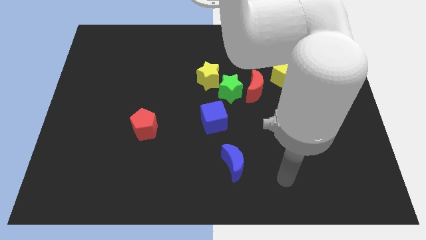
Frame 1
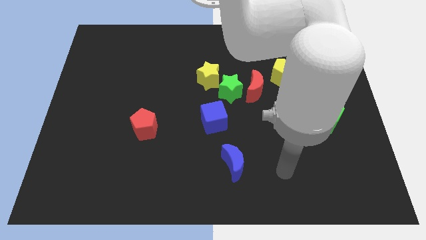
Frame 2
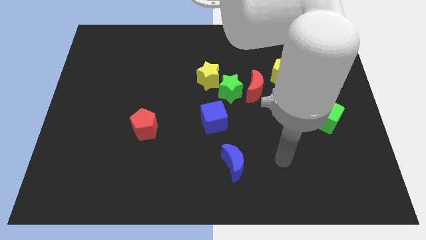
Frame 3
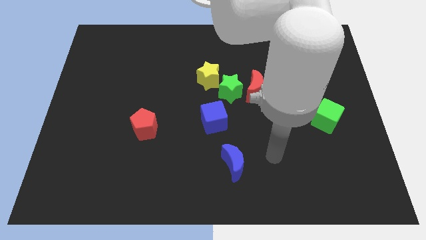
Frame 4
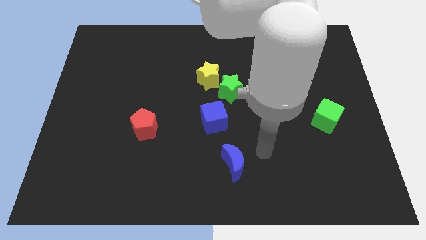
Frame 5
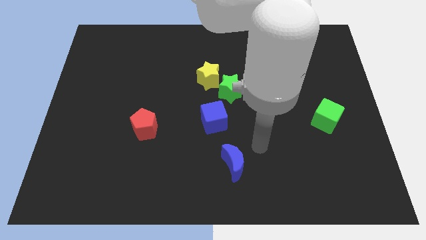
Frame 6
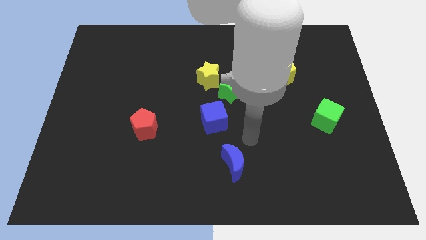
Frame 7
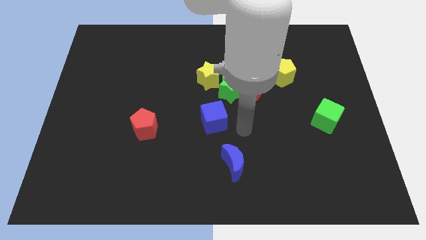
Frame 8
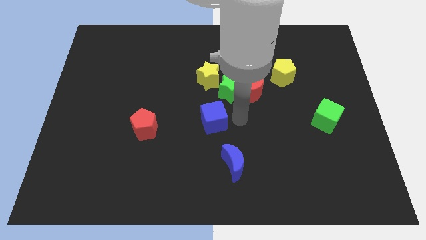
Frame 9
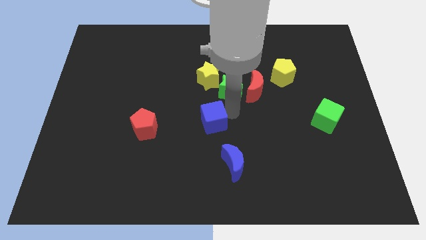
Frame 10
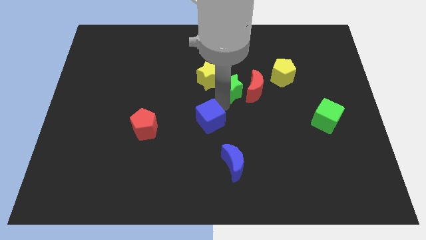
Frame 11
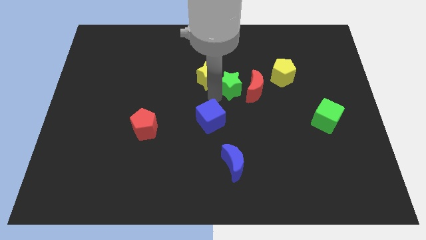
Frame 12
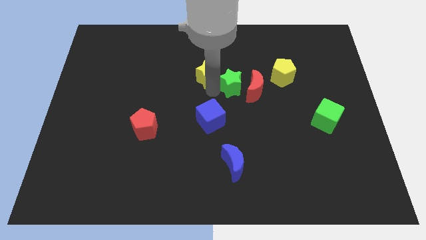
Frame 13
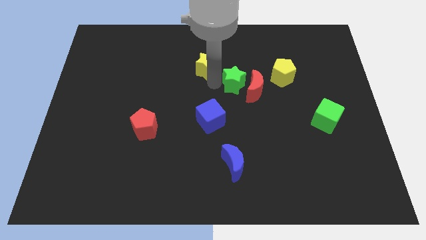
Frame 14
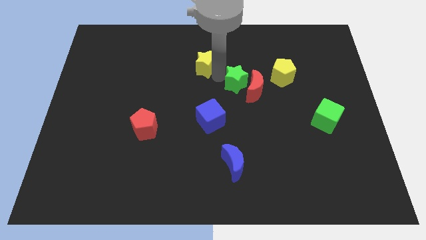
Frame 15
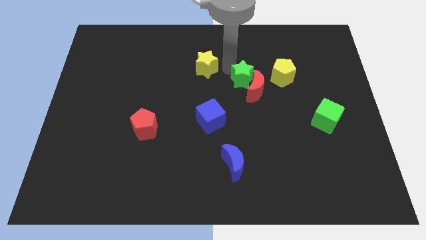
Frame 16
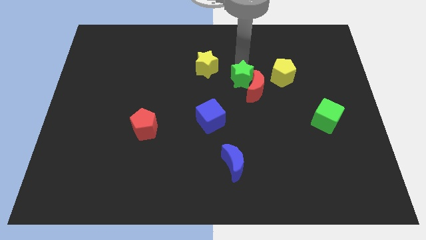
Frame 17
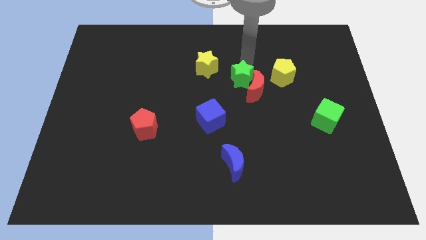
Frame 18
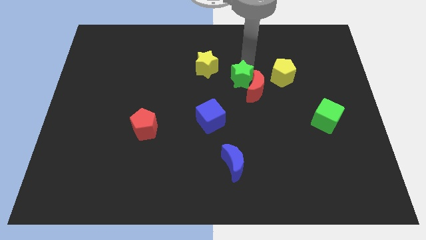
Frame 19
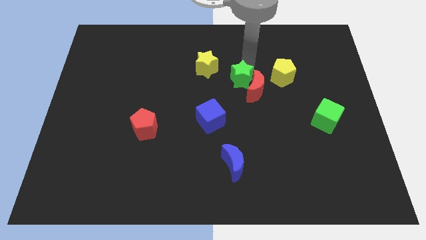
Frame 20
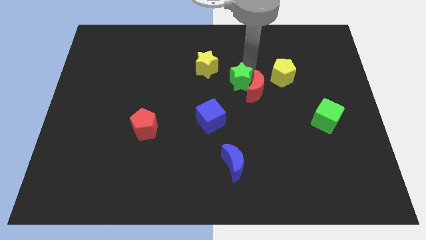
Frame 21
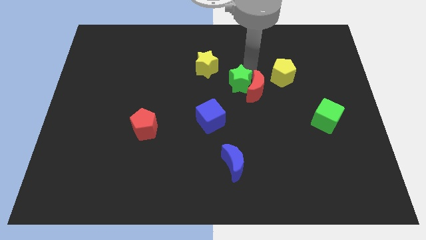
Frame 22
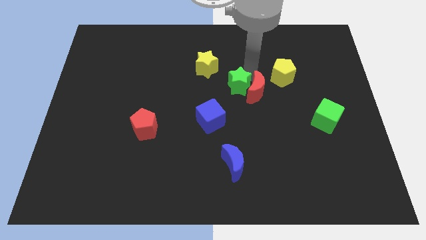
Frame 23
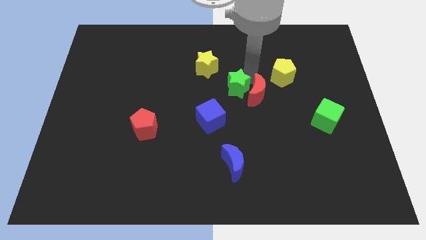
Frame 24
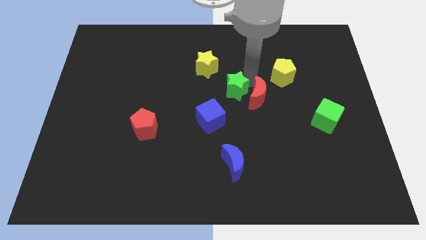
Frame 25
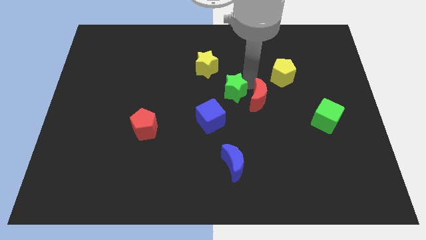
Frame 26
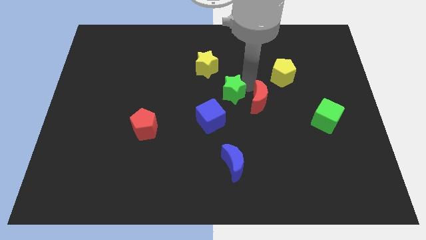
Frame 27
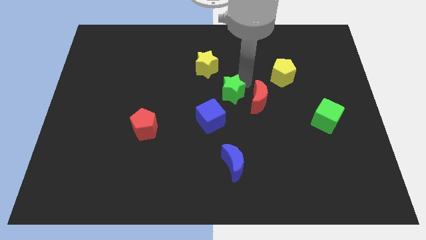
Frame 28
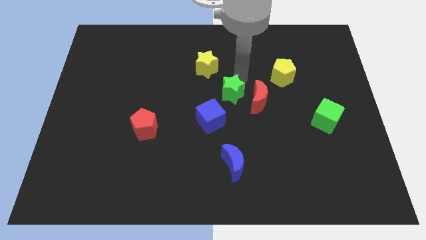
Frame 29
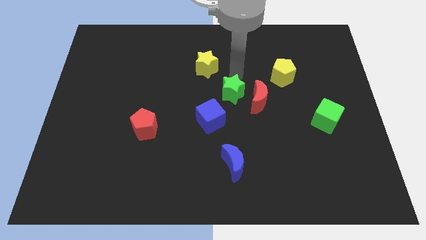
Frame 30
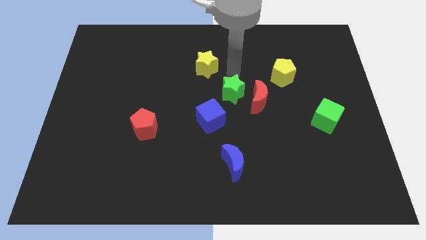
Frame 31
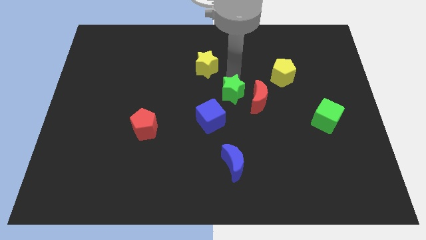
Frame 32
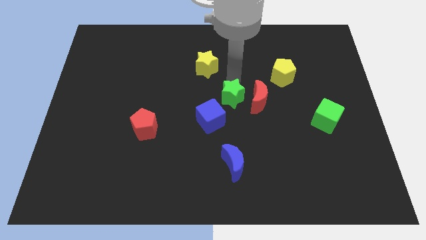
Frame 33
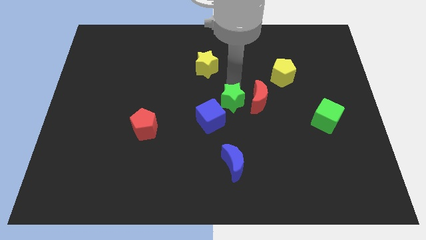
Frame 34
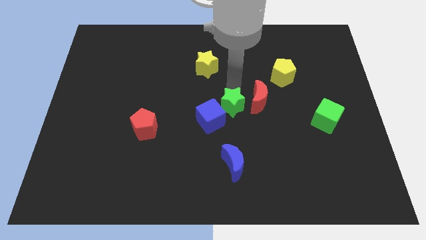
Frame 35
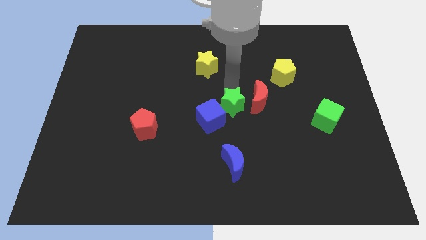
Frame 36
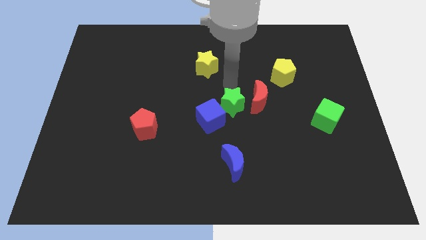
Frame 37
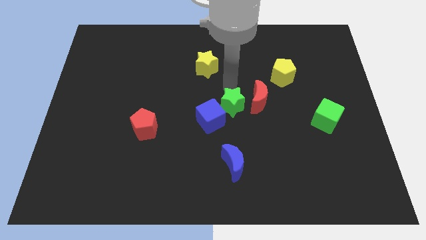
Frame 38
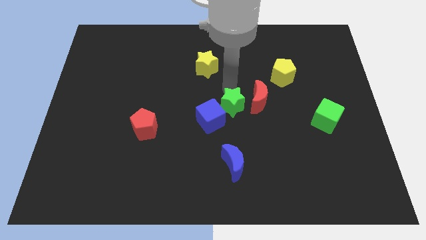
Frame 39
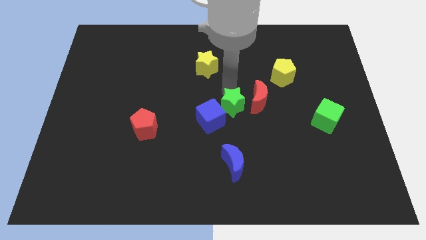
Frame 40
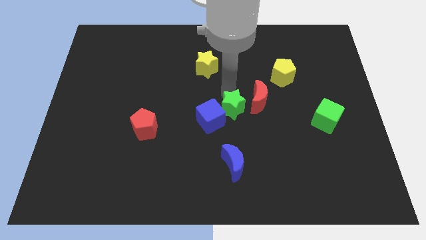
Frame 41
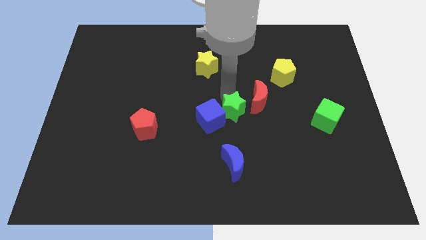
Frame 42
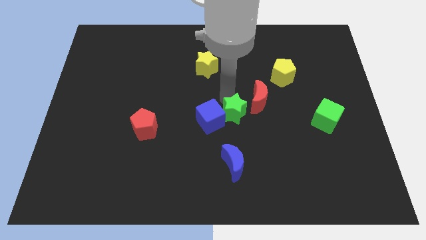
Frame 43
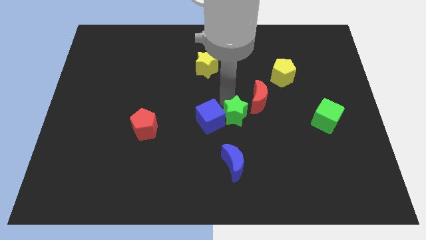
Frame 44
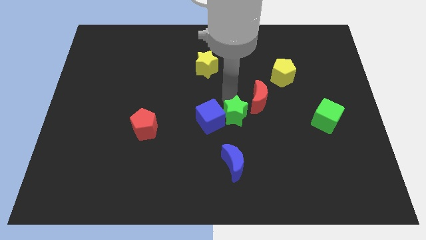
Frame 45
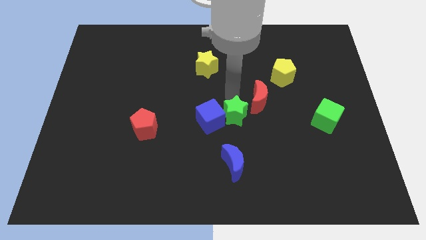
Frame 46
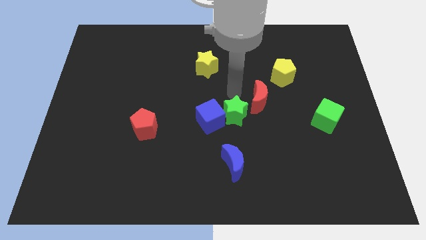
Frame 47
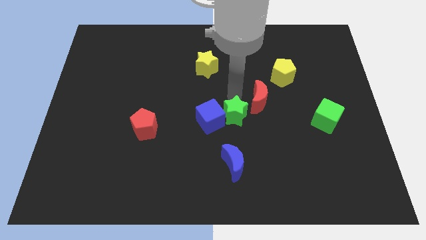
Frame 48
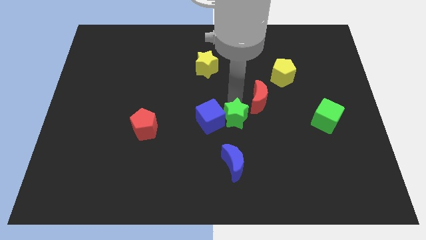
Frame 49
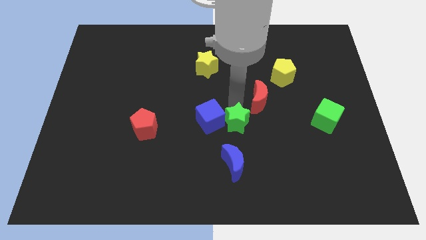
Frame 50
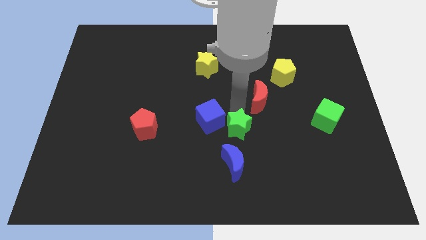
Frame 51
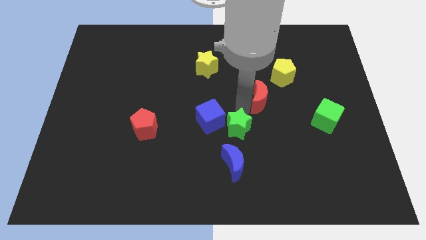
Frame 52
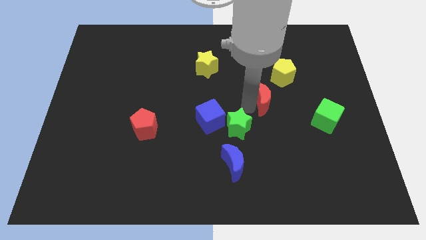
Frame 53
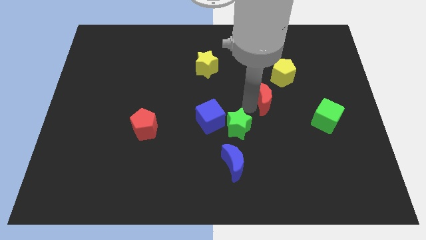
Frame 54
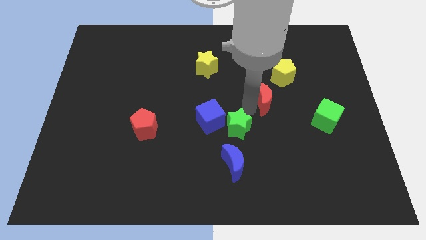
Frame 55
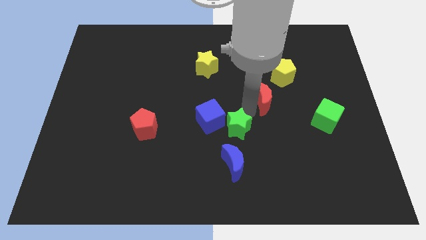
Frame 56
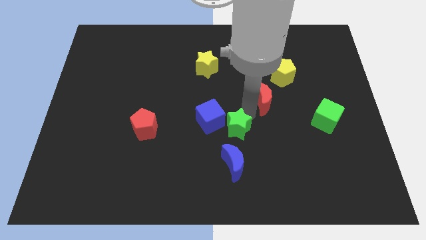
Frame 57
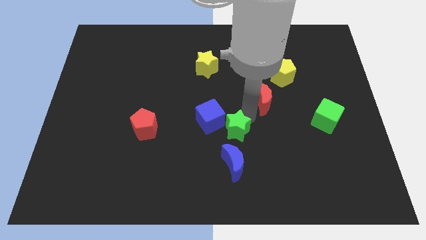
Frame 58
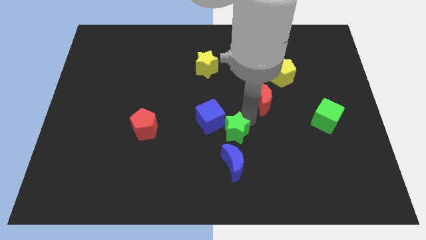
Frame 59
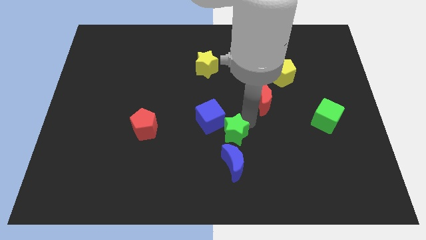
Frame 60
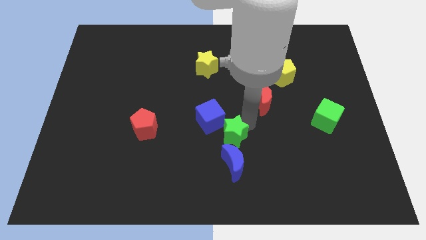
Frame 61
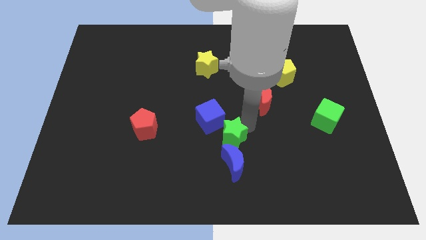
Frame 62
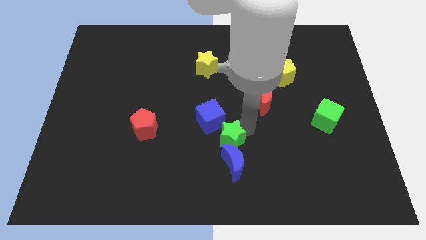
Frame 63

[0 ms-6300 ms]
move the green star below the blue cube
